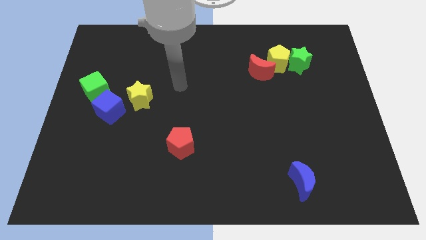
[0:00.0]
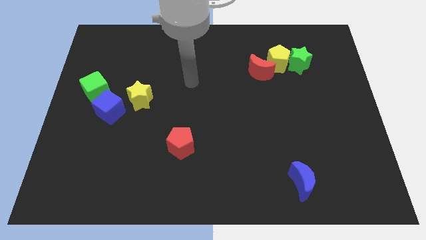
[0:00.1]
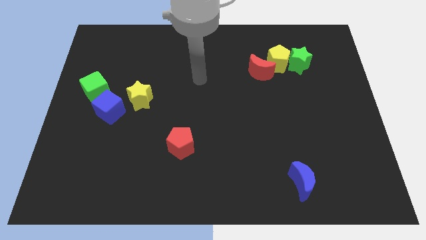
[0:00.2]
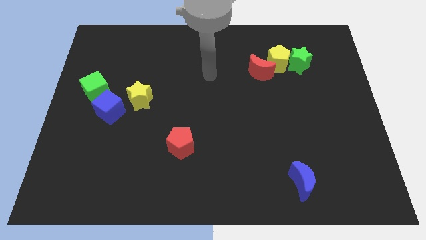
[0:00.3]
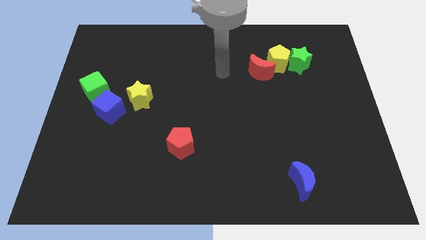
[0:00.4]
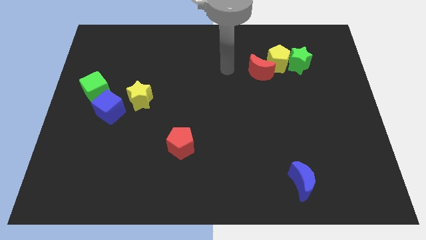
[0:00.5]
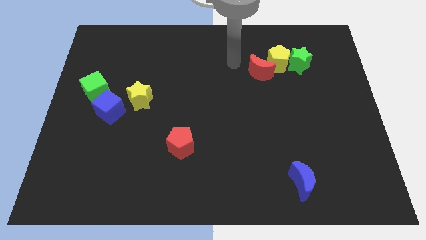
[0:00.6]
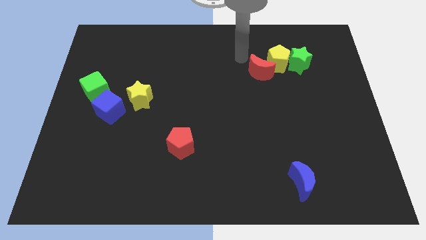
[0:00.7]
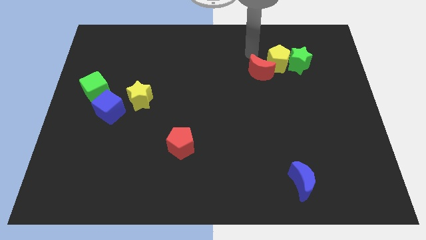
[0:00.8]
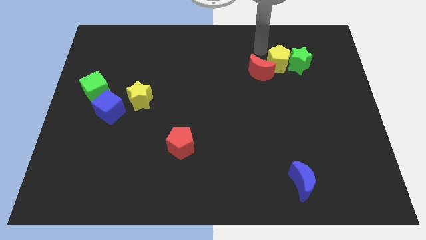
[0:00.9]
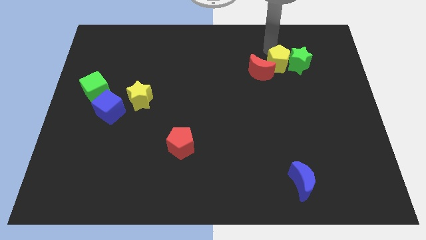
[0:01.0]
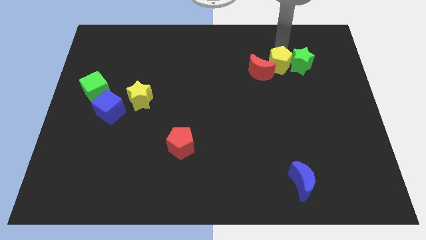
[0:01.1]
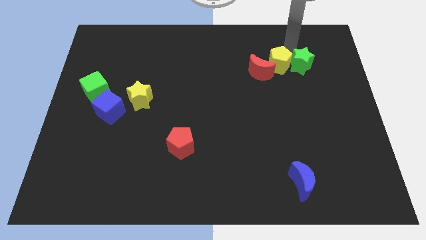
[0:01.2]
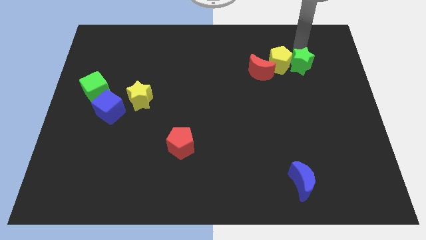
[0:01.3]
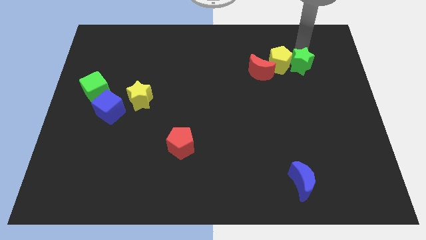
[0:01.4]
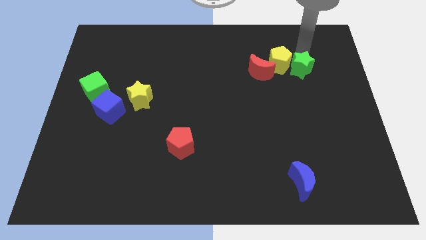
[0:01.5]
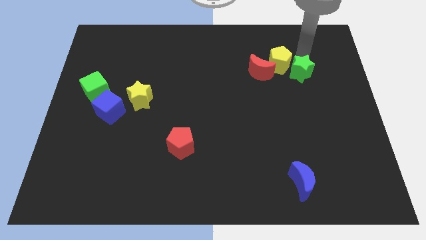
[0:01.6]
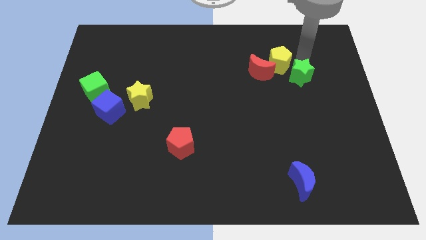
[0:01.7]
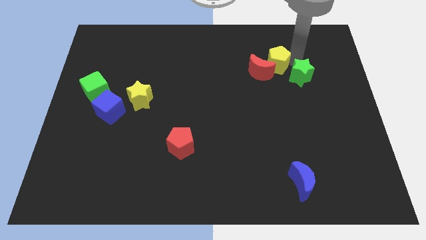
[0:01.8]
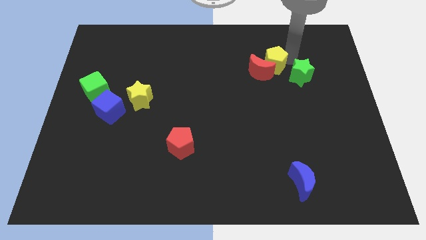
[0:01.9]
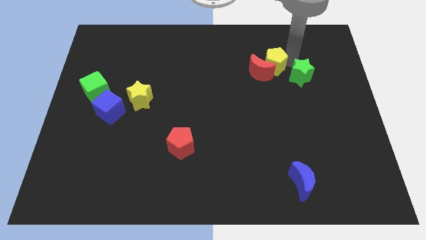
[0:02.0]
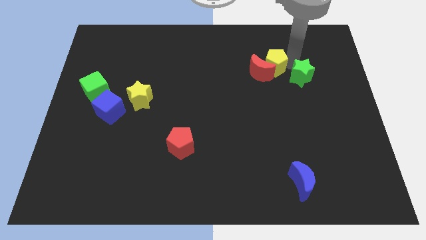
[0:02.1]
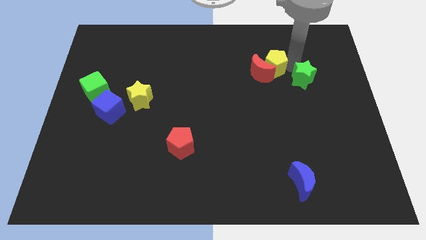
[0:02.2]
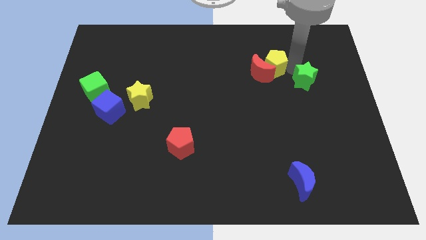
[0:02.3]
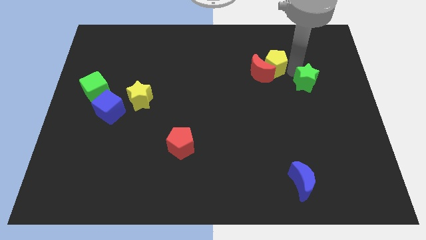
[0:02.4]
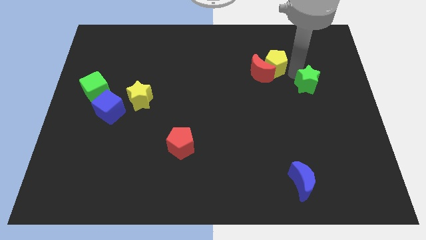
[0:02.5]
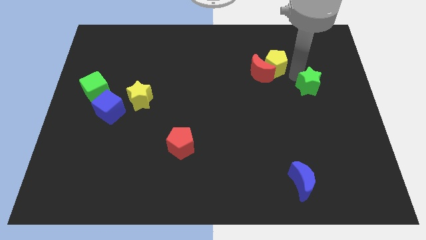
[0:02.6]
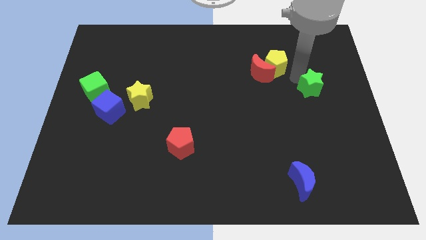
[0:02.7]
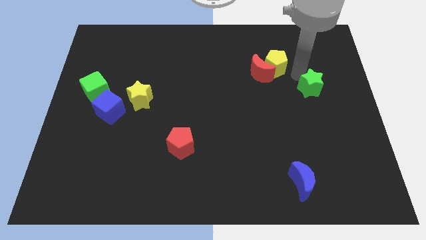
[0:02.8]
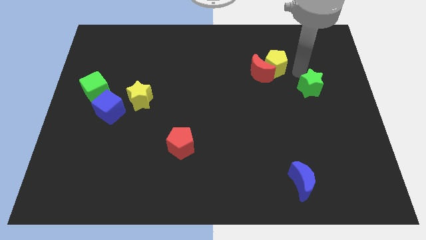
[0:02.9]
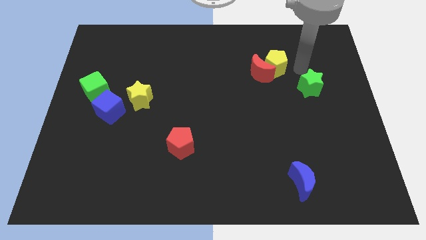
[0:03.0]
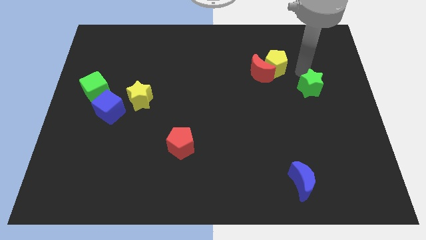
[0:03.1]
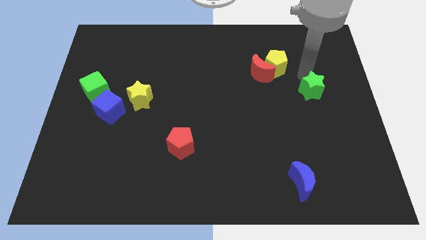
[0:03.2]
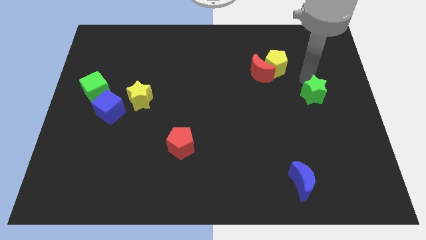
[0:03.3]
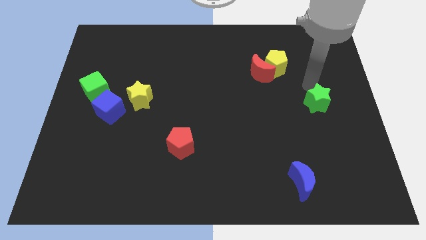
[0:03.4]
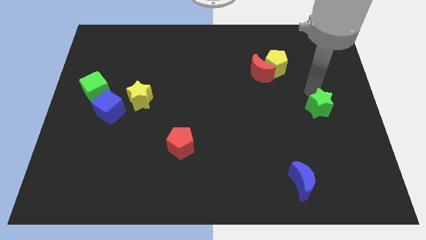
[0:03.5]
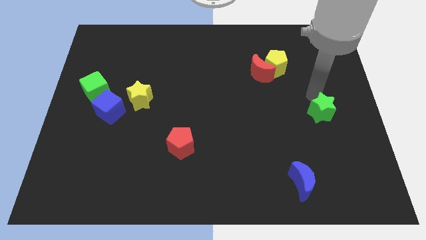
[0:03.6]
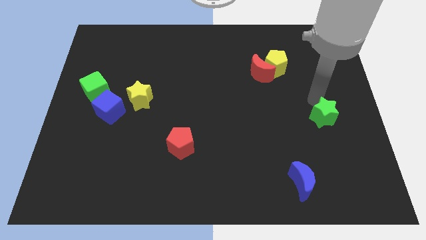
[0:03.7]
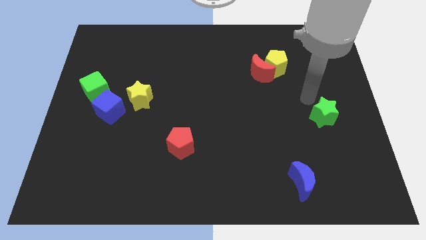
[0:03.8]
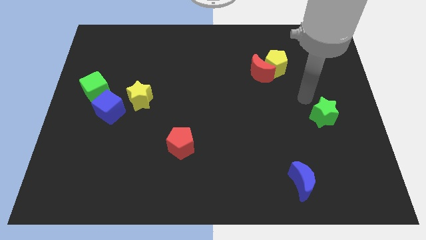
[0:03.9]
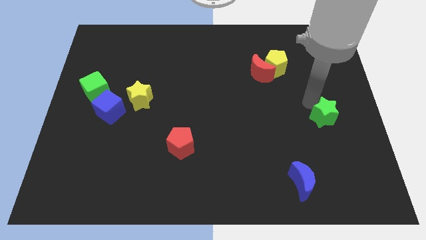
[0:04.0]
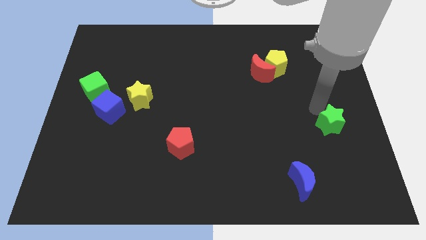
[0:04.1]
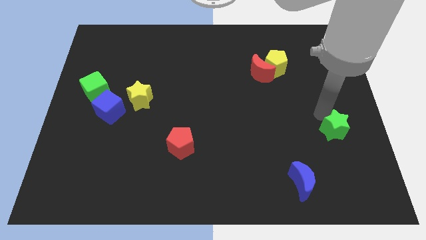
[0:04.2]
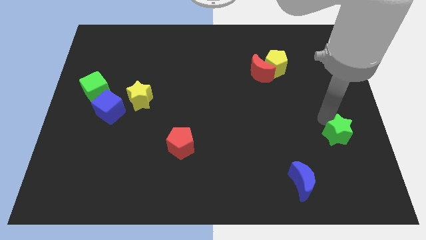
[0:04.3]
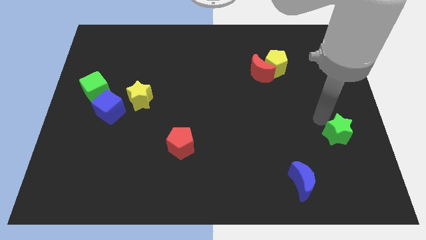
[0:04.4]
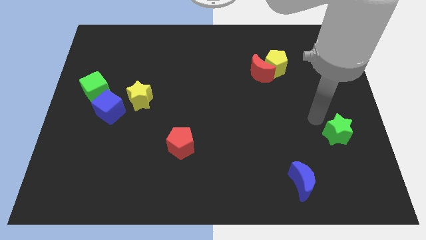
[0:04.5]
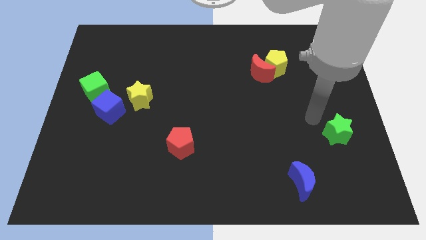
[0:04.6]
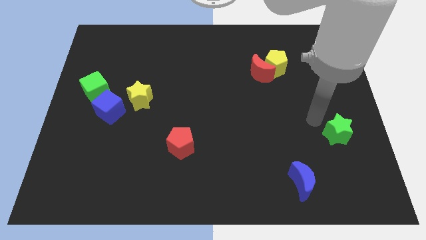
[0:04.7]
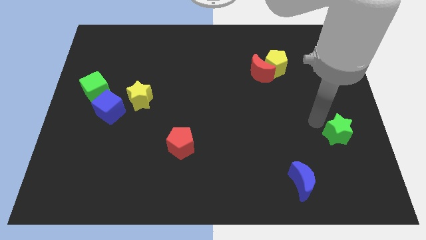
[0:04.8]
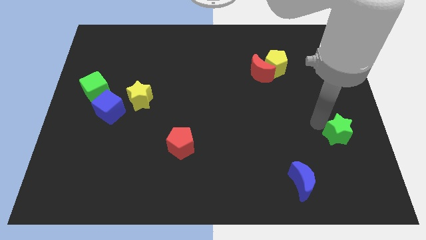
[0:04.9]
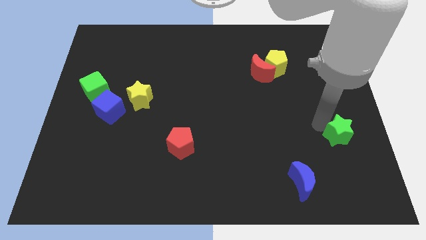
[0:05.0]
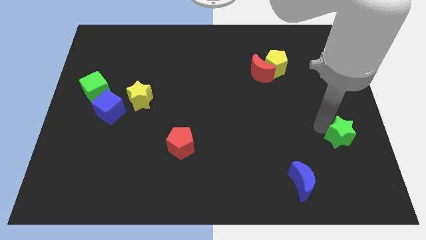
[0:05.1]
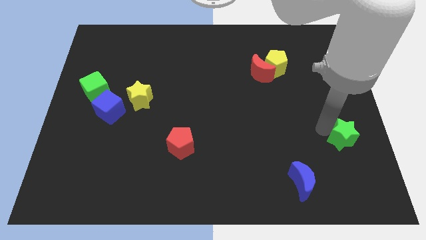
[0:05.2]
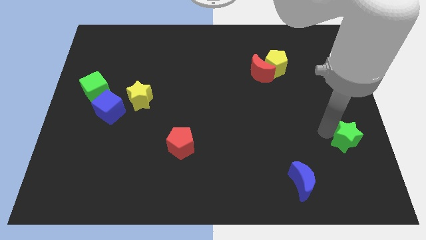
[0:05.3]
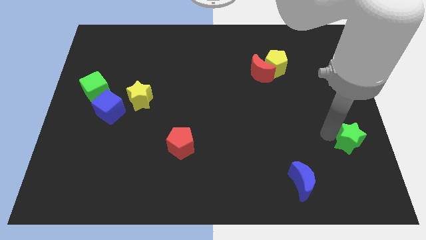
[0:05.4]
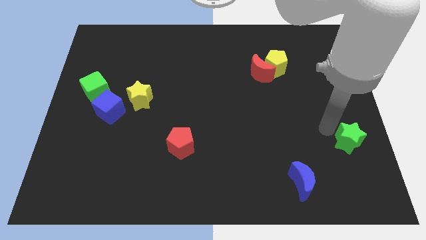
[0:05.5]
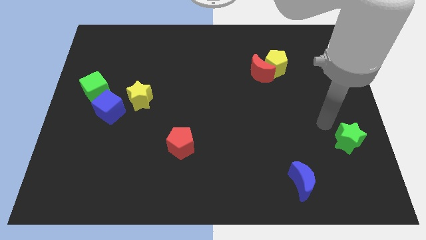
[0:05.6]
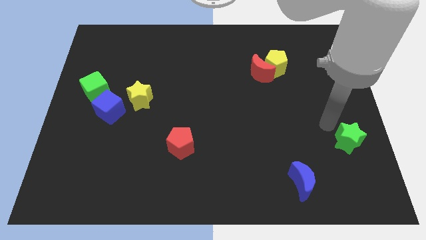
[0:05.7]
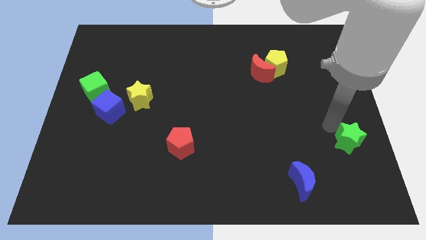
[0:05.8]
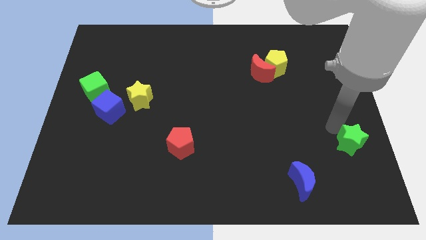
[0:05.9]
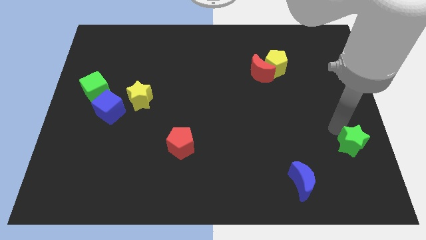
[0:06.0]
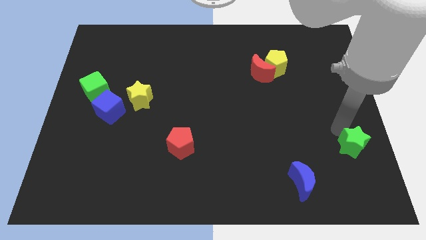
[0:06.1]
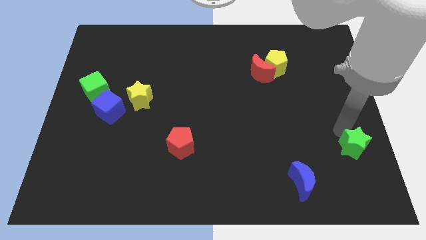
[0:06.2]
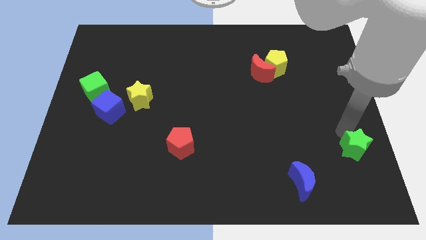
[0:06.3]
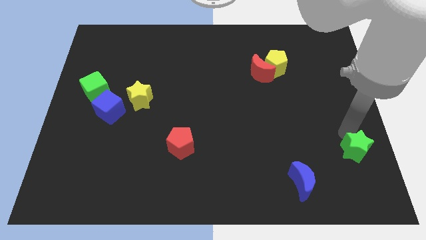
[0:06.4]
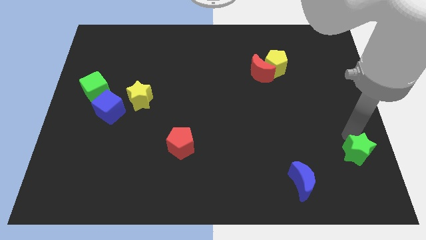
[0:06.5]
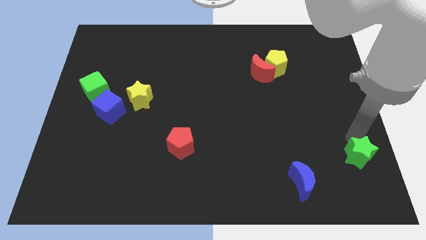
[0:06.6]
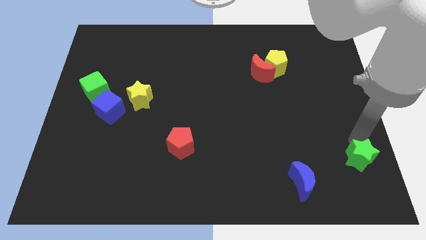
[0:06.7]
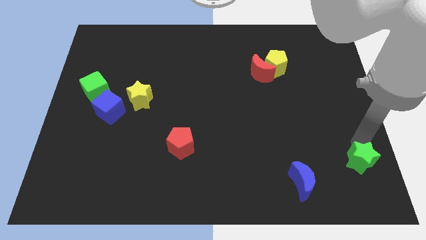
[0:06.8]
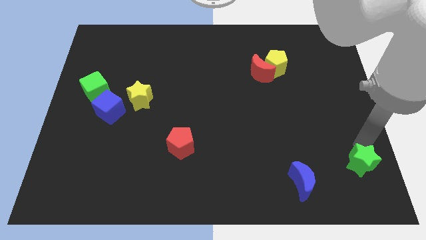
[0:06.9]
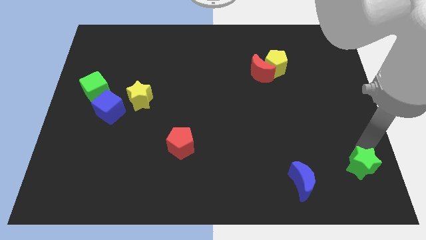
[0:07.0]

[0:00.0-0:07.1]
push the green star to the bottom right of the board
